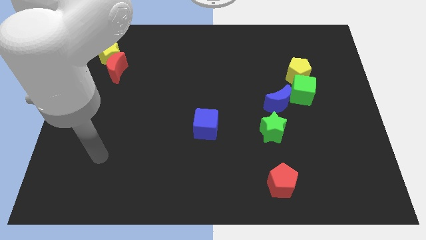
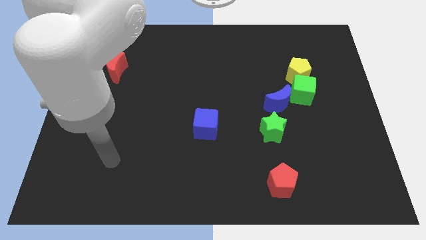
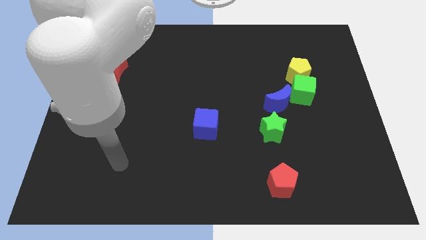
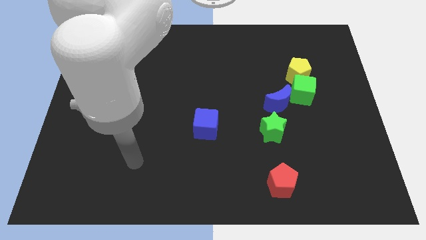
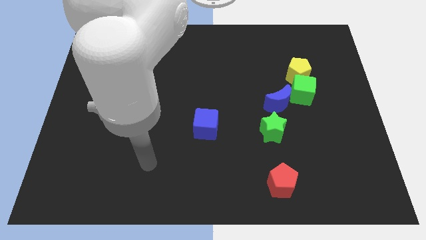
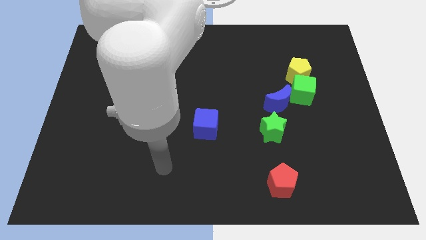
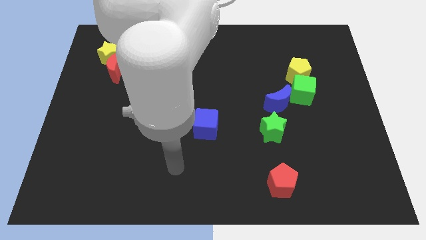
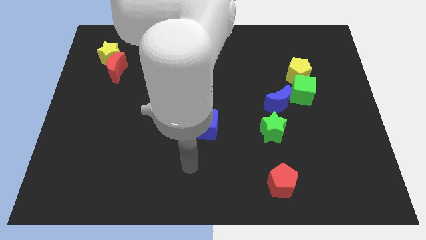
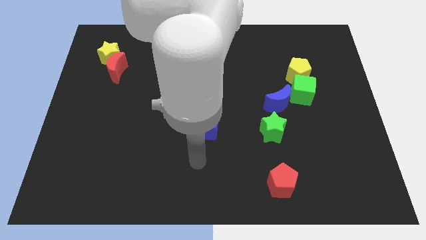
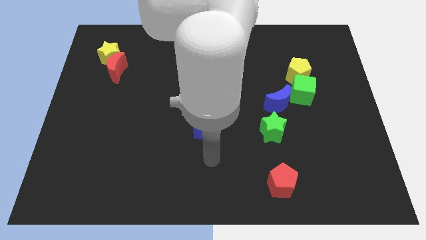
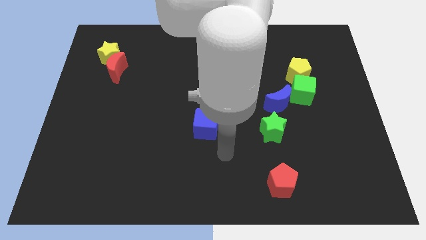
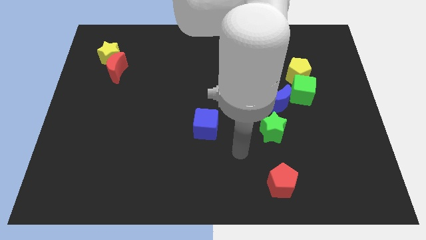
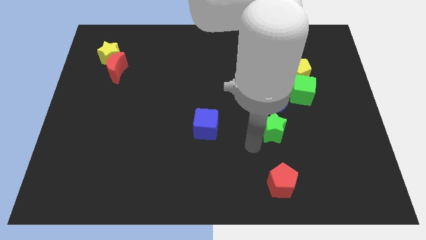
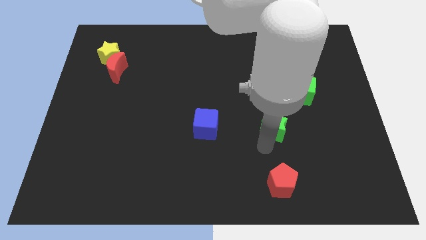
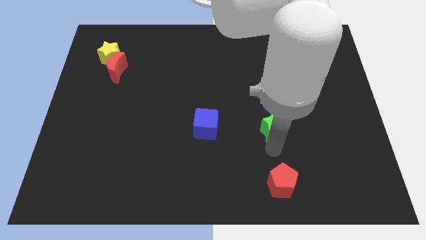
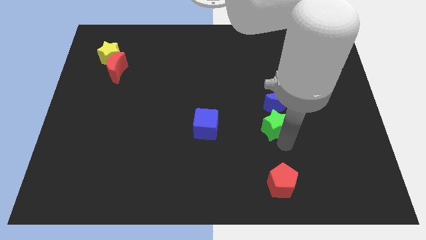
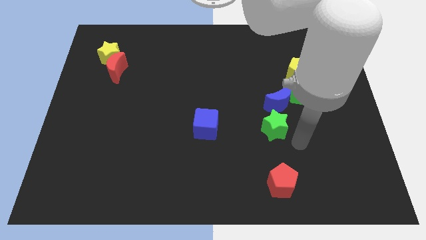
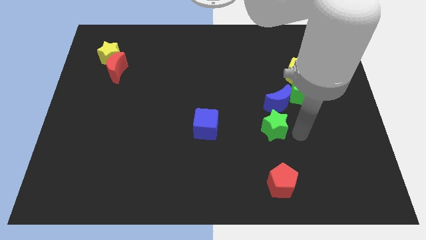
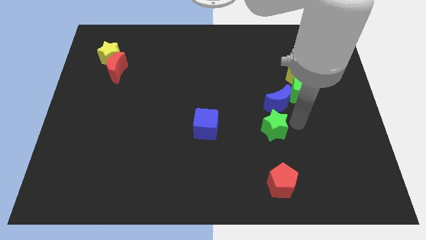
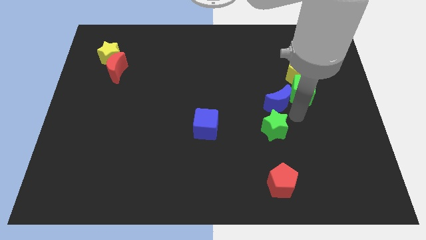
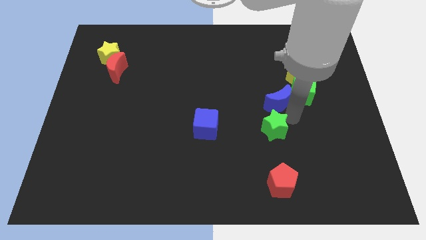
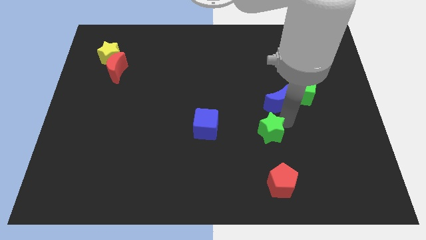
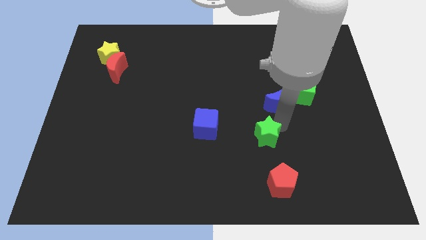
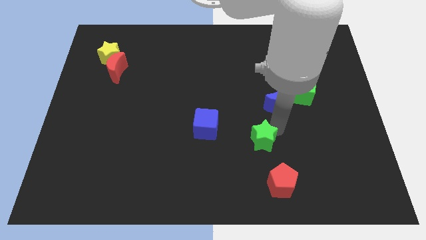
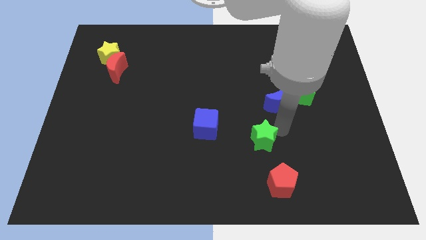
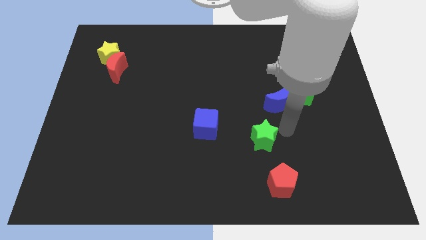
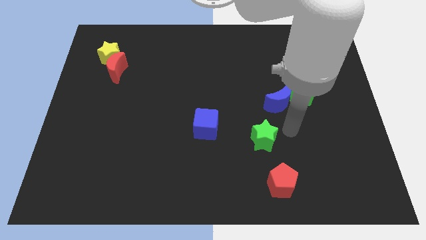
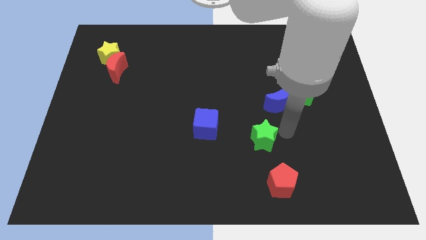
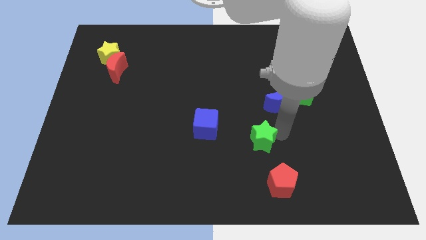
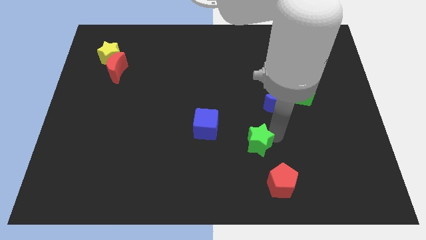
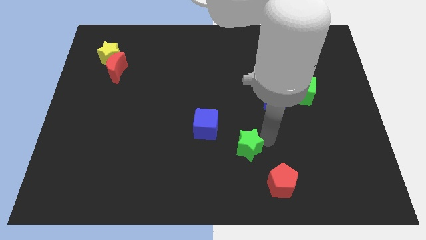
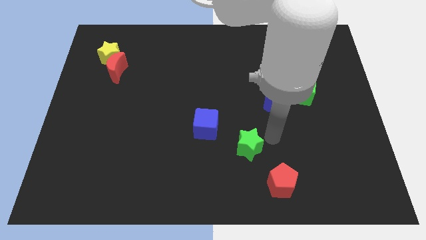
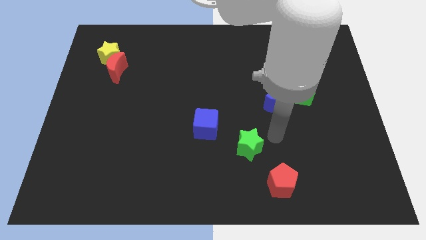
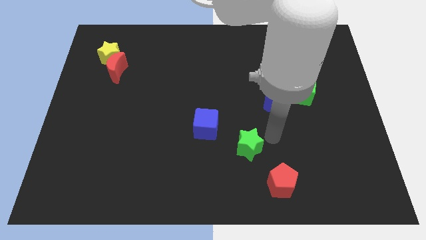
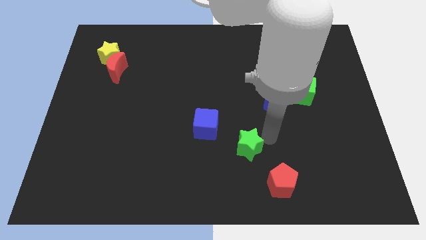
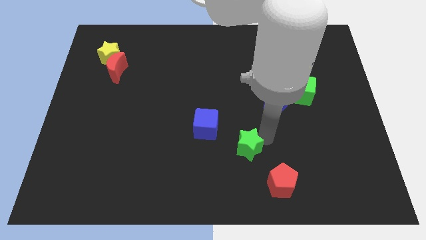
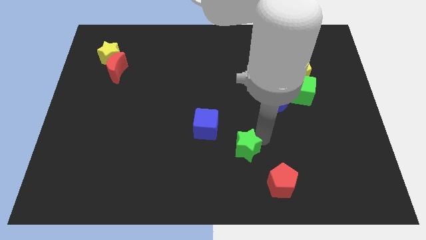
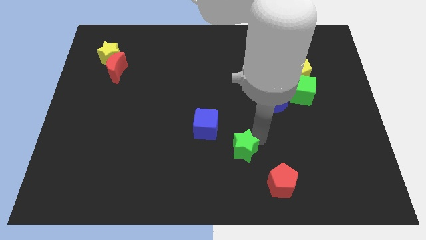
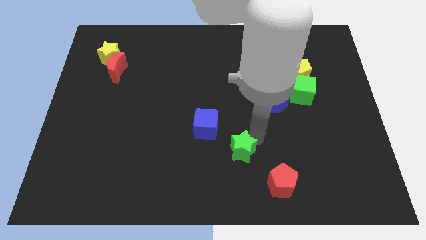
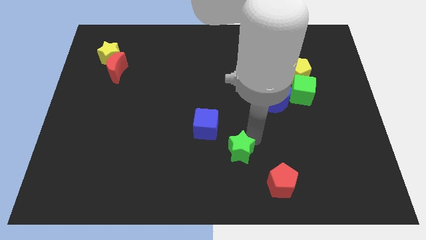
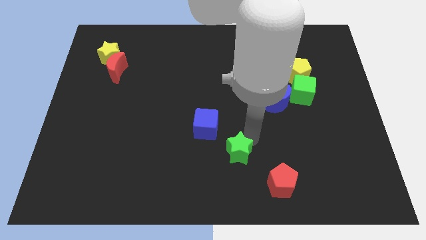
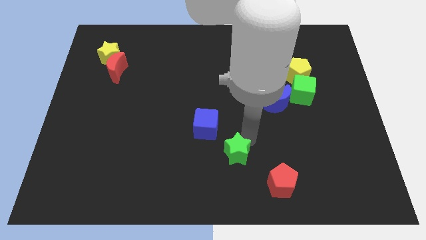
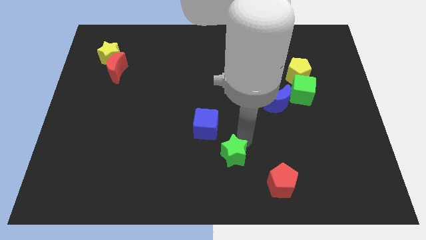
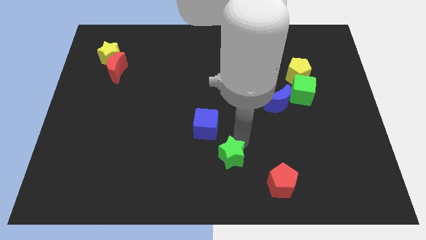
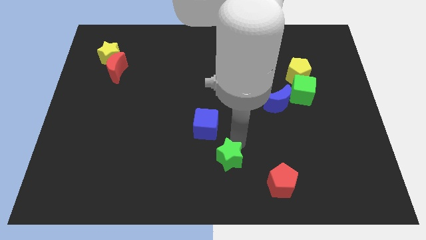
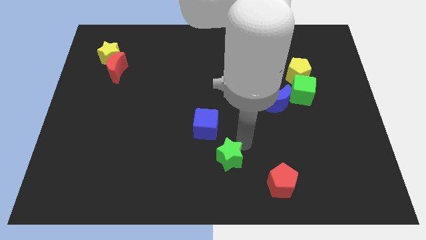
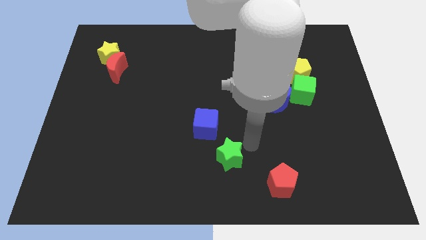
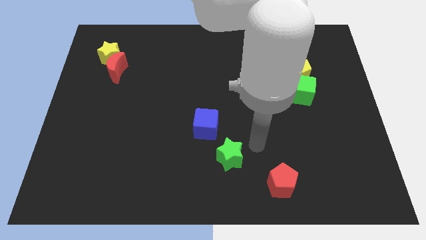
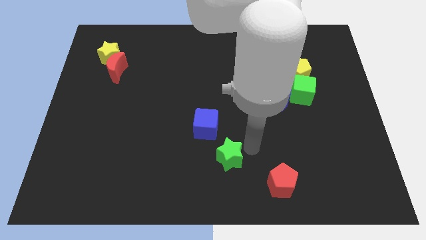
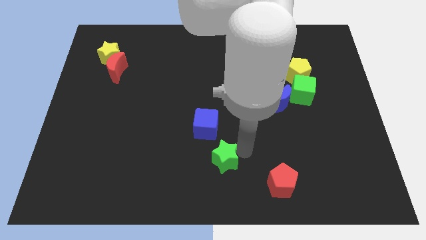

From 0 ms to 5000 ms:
move the green star below the blue cube

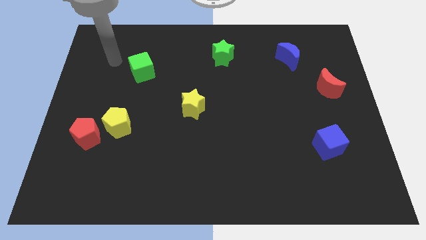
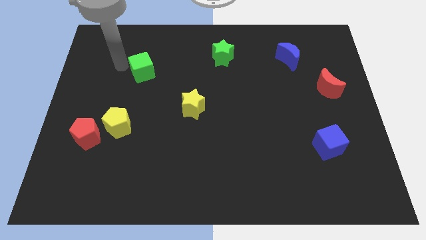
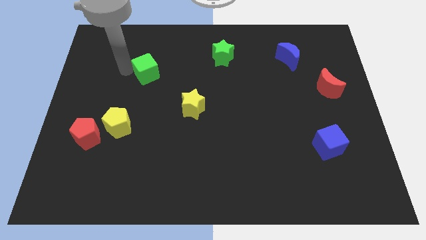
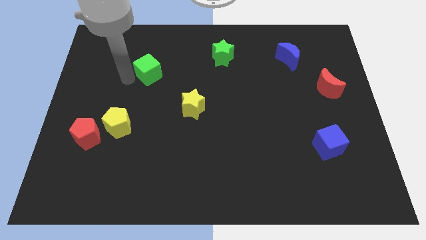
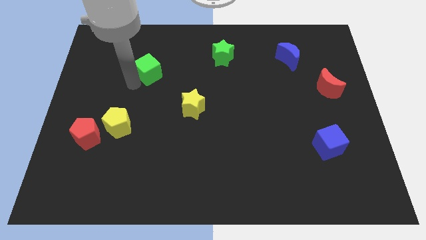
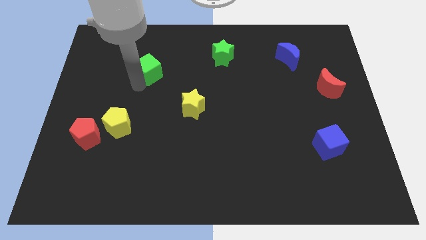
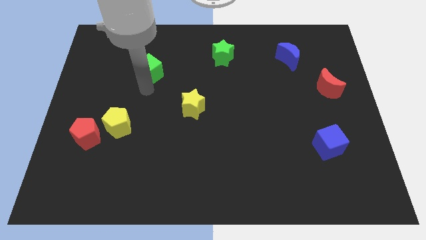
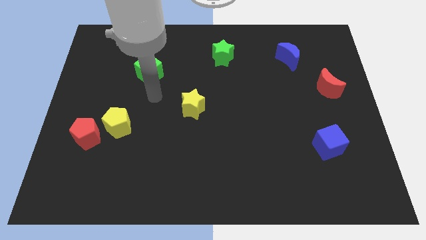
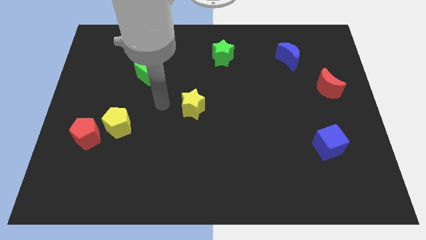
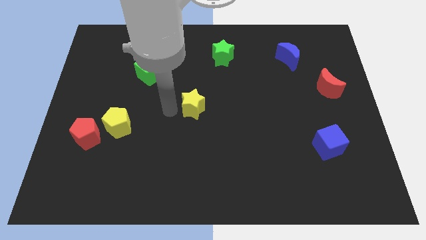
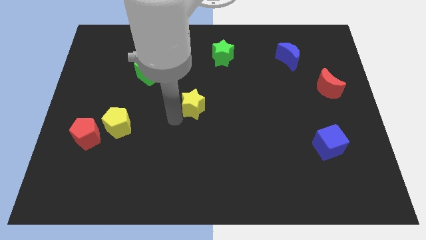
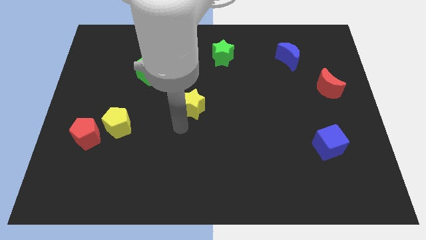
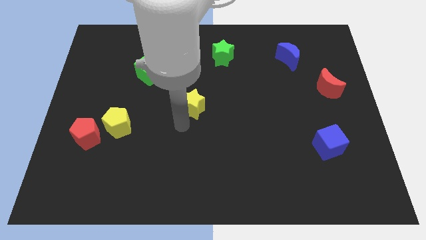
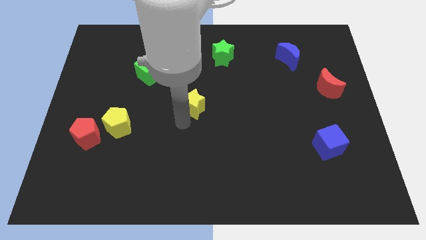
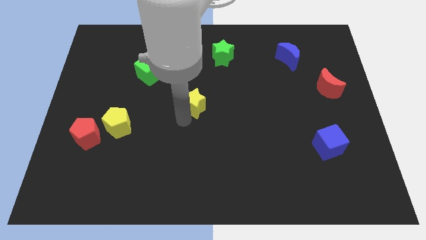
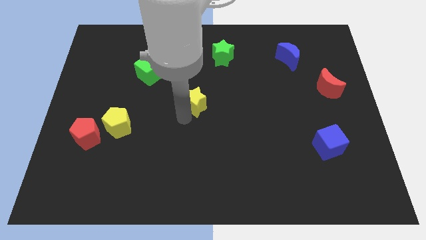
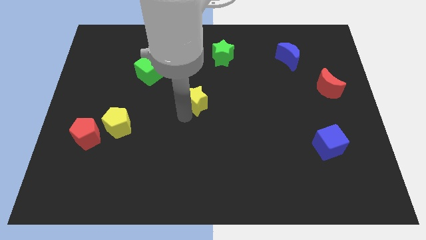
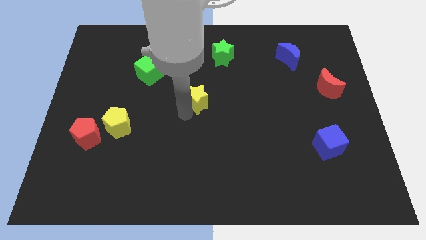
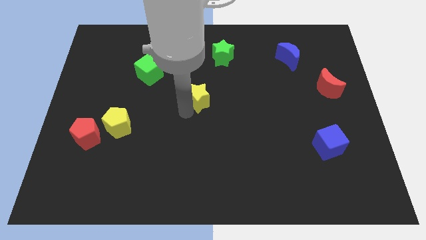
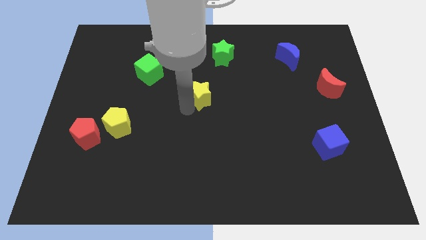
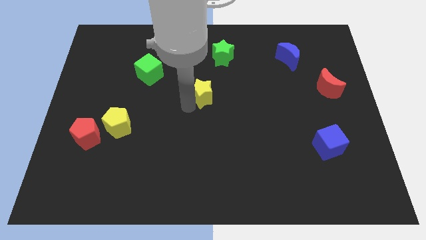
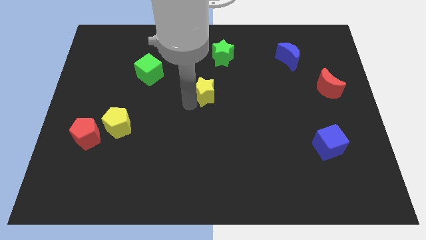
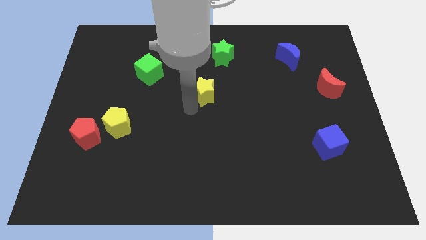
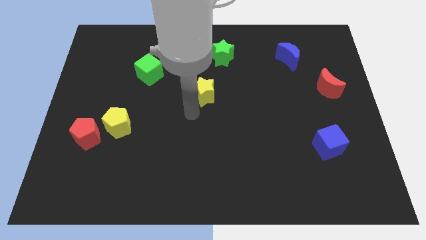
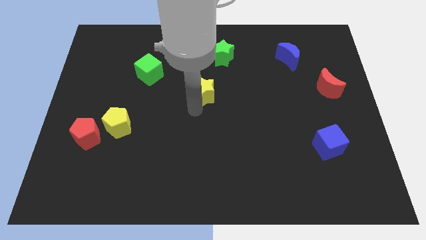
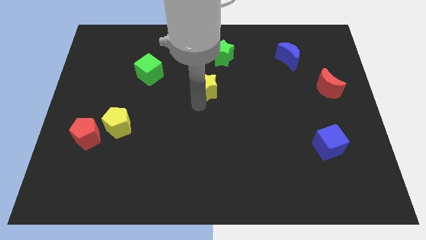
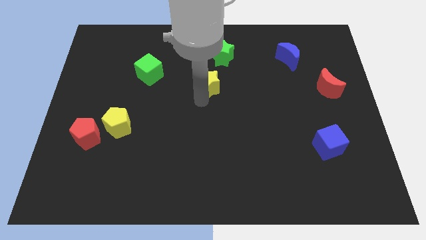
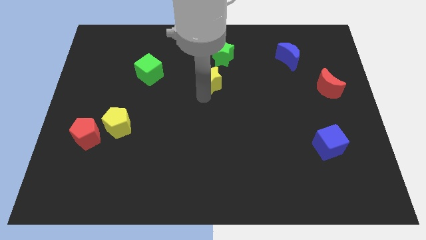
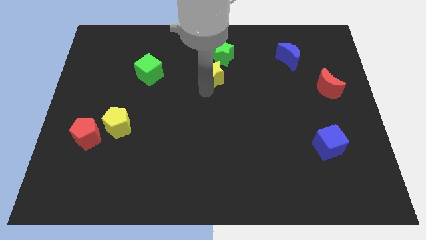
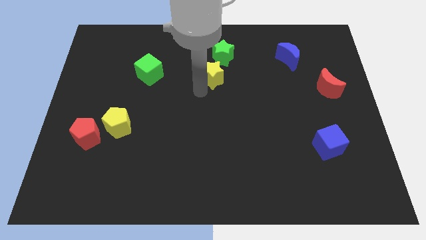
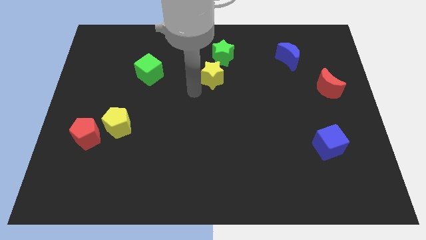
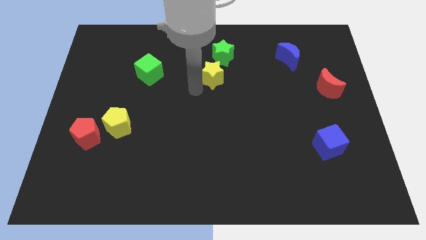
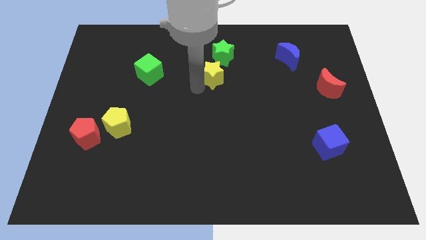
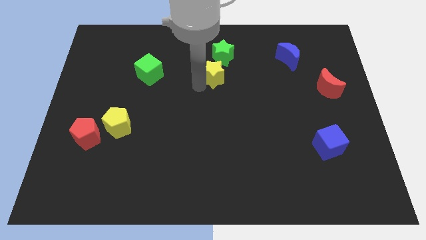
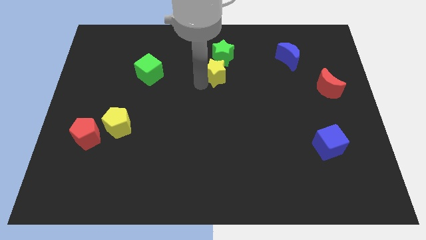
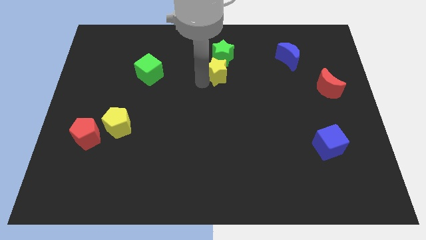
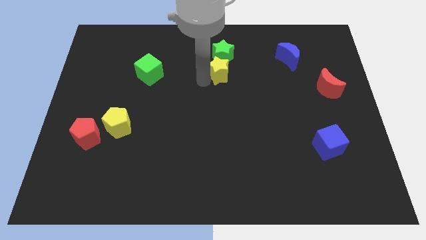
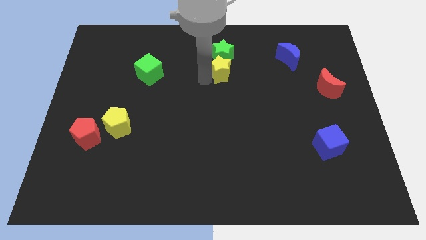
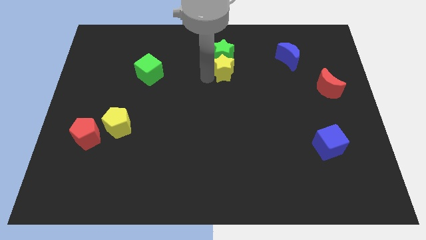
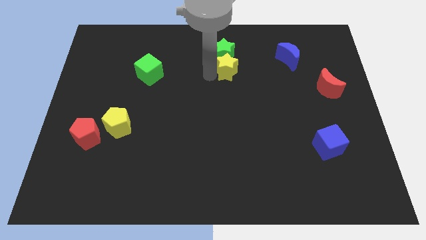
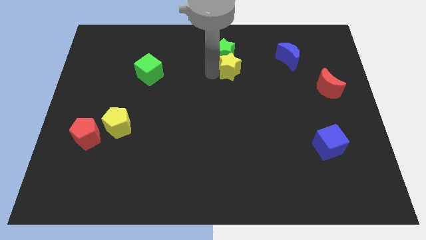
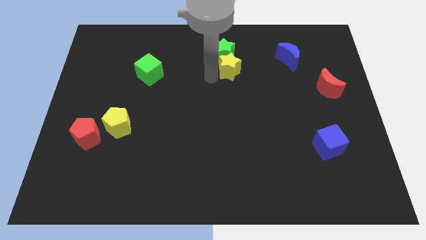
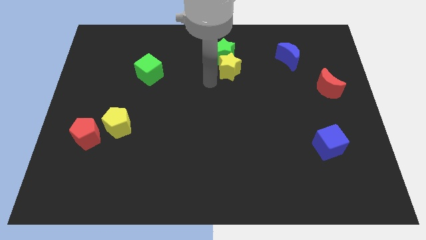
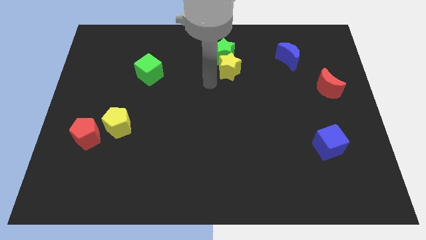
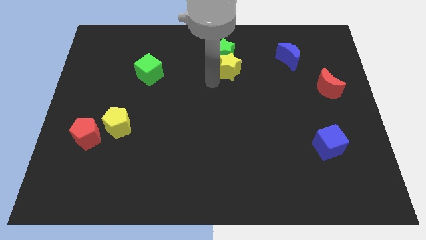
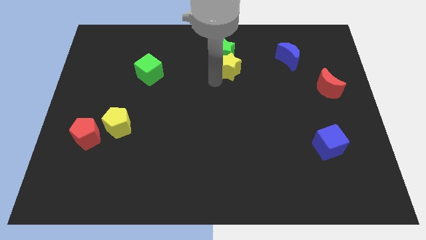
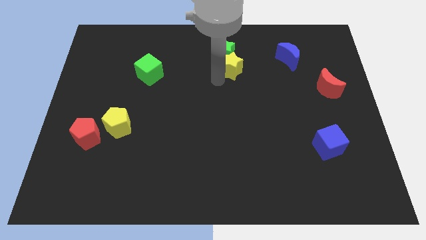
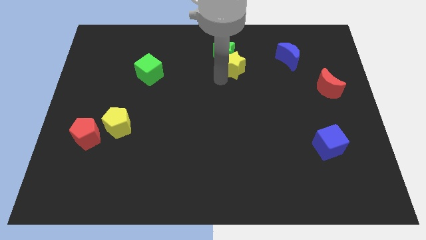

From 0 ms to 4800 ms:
move the yellow star to the left side of the blue moon
